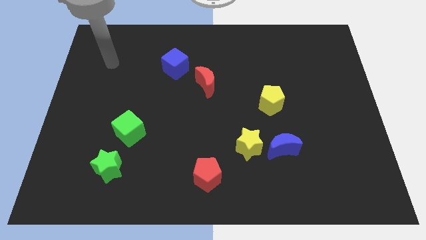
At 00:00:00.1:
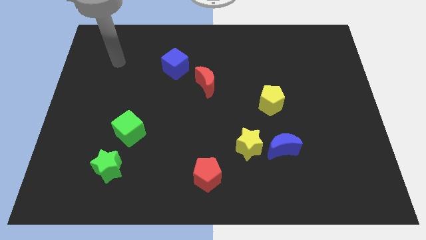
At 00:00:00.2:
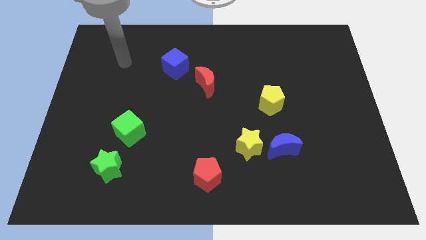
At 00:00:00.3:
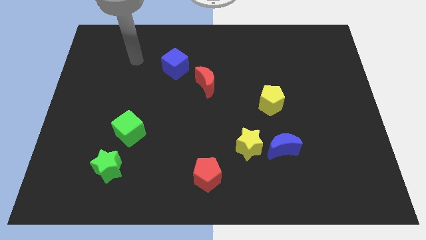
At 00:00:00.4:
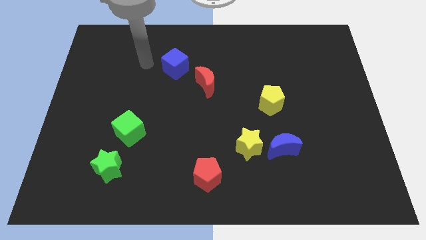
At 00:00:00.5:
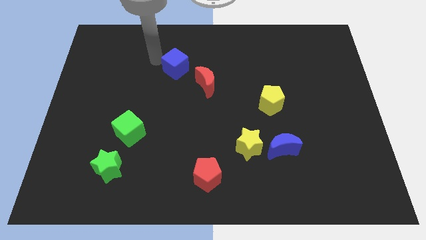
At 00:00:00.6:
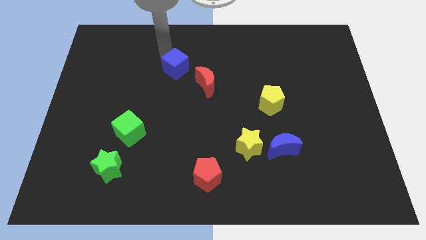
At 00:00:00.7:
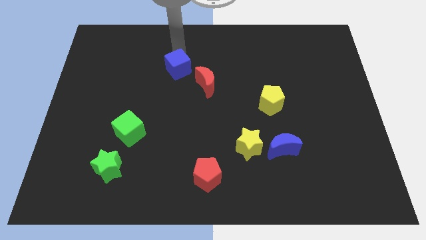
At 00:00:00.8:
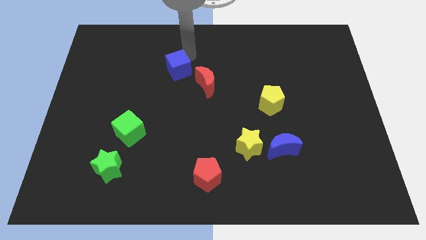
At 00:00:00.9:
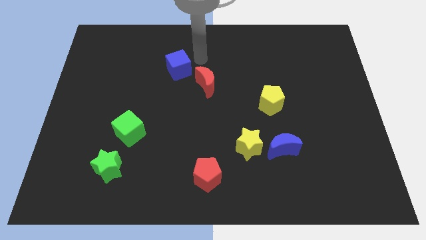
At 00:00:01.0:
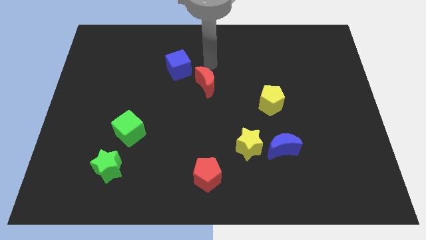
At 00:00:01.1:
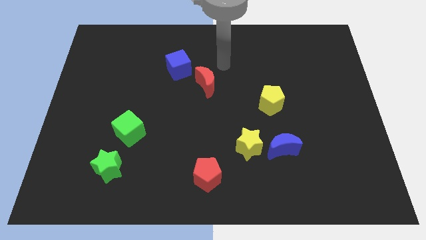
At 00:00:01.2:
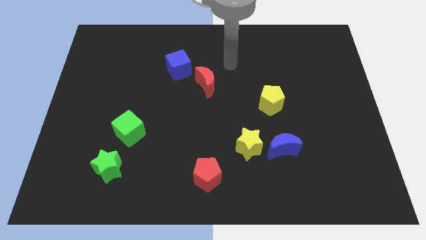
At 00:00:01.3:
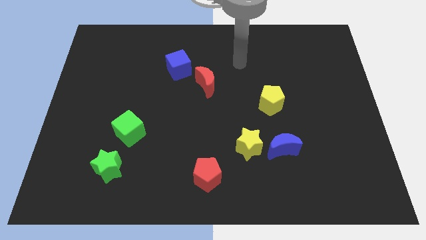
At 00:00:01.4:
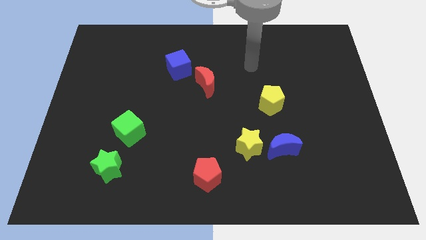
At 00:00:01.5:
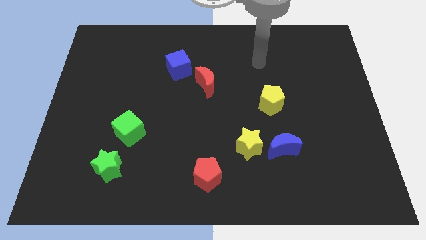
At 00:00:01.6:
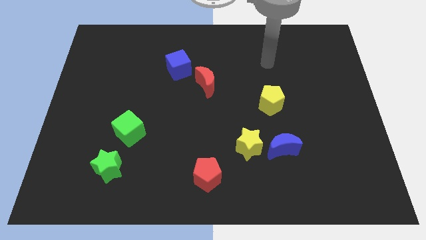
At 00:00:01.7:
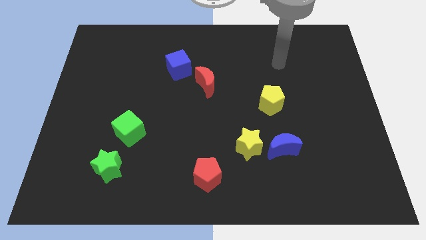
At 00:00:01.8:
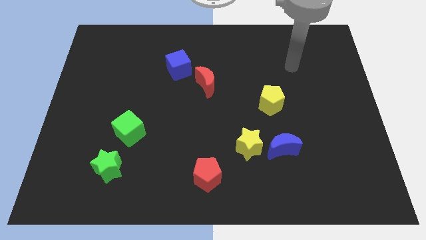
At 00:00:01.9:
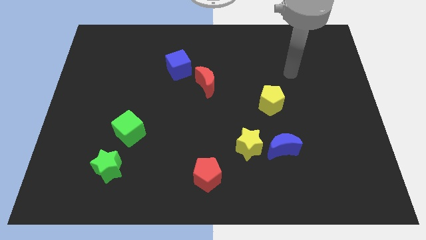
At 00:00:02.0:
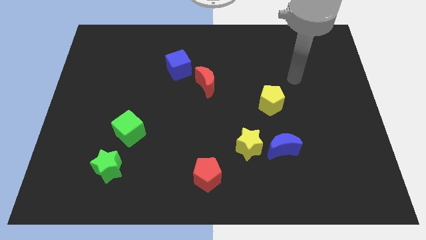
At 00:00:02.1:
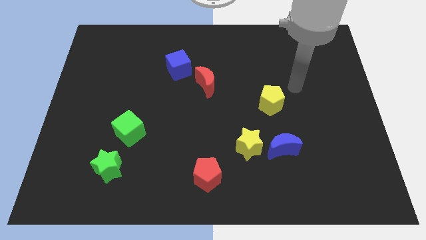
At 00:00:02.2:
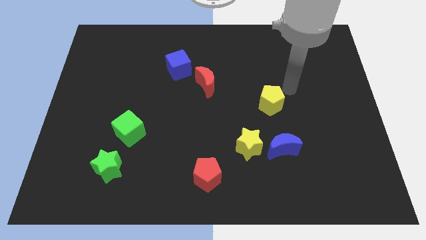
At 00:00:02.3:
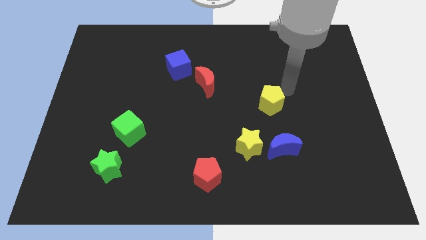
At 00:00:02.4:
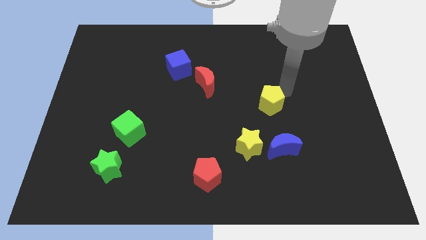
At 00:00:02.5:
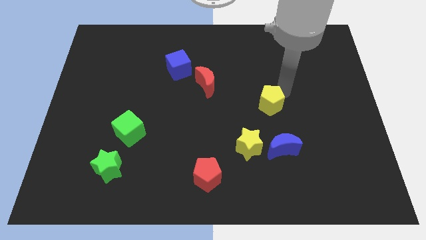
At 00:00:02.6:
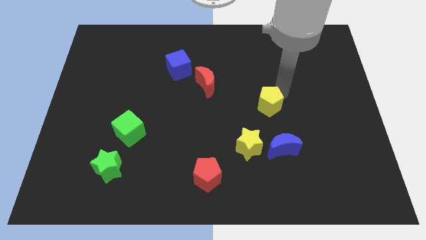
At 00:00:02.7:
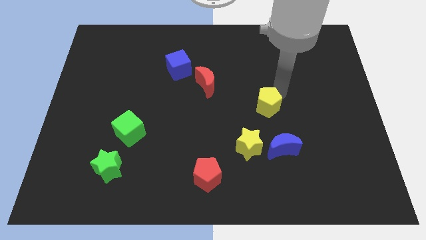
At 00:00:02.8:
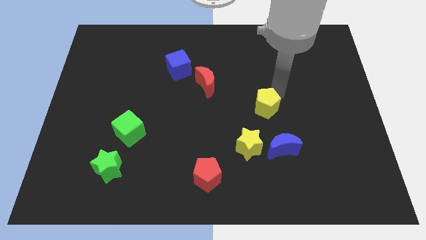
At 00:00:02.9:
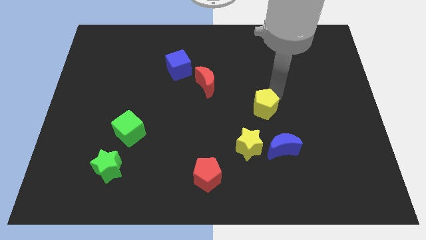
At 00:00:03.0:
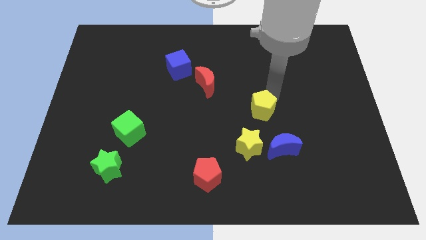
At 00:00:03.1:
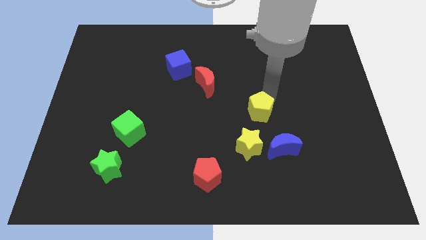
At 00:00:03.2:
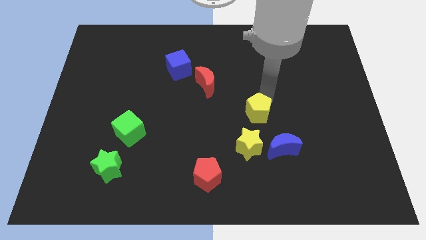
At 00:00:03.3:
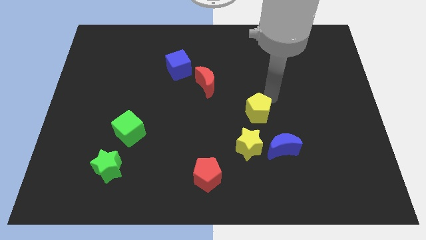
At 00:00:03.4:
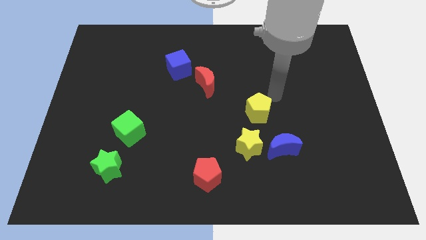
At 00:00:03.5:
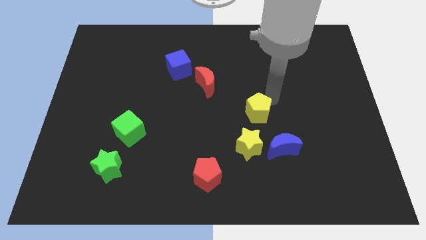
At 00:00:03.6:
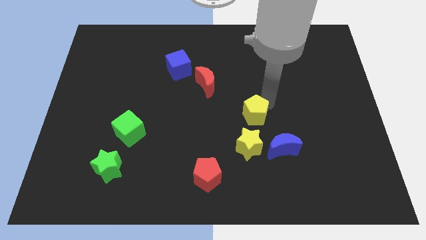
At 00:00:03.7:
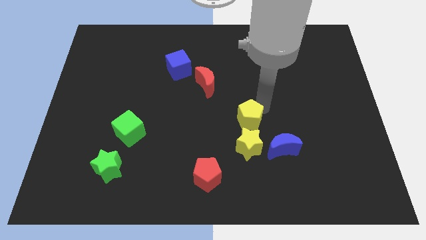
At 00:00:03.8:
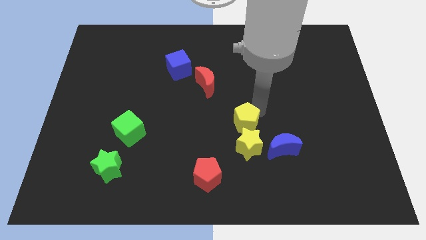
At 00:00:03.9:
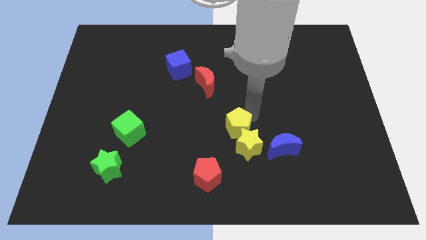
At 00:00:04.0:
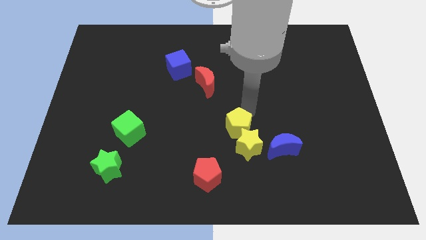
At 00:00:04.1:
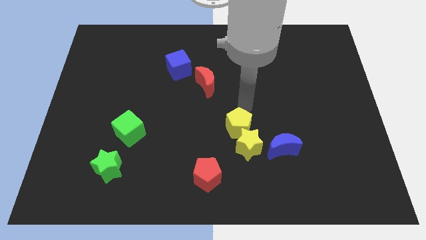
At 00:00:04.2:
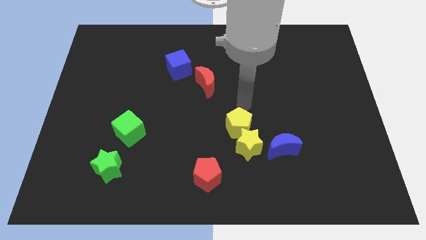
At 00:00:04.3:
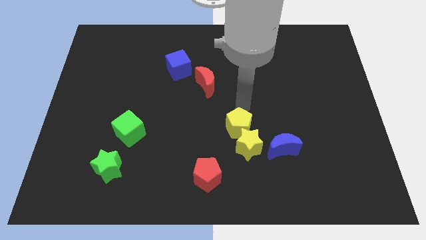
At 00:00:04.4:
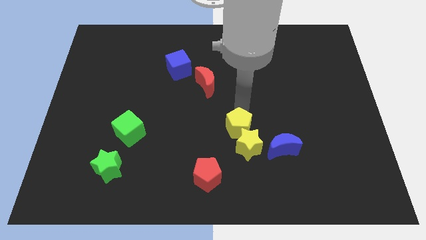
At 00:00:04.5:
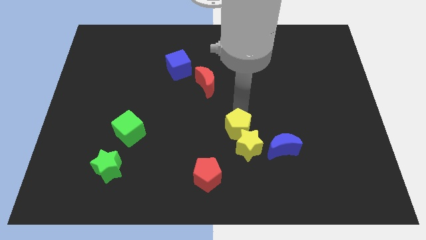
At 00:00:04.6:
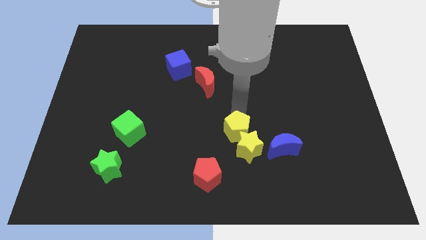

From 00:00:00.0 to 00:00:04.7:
move the yellow pentagon to the left of the blue moon

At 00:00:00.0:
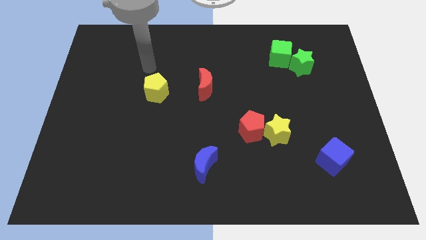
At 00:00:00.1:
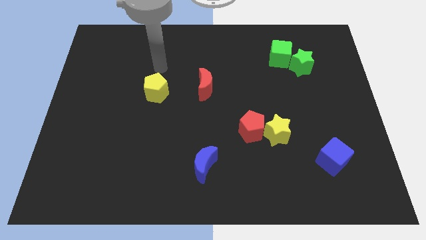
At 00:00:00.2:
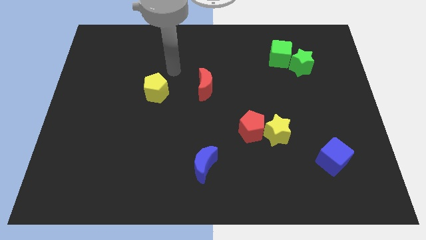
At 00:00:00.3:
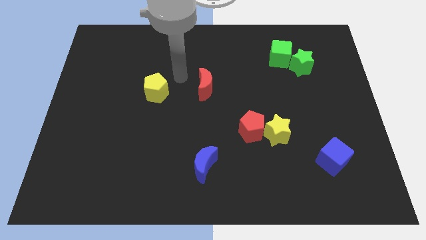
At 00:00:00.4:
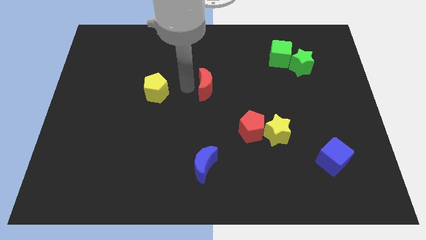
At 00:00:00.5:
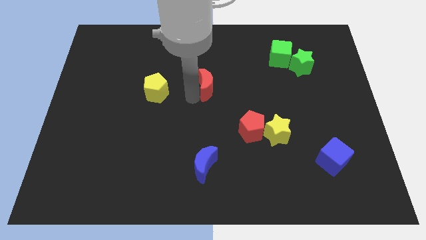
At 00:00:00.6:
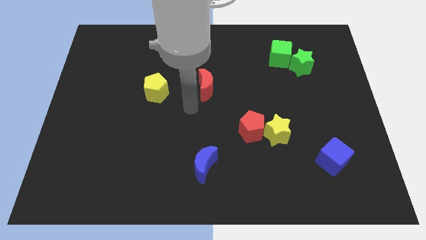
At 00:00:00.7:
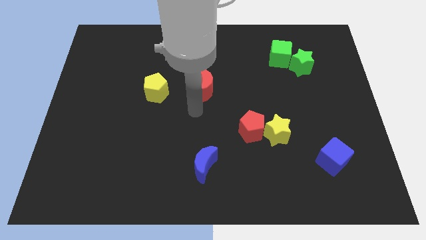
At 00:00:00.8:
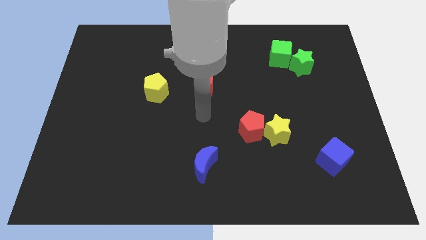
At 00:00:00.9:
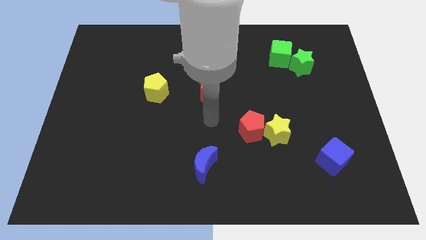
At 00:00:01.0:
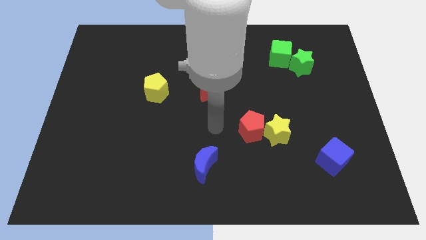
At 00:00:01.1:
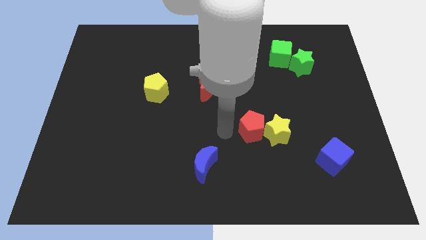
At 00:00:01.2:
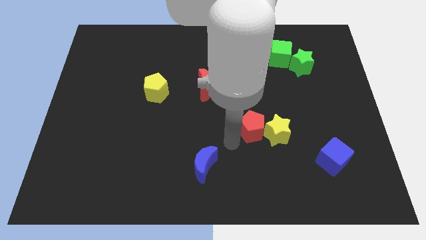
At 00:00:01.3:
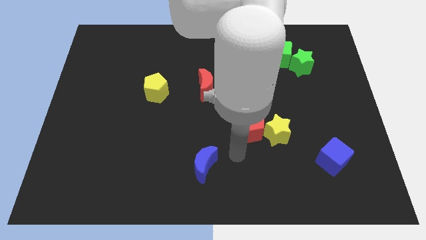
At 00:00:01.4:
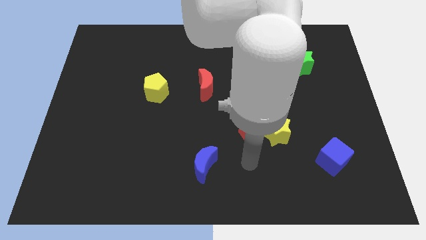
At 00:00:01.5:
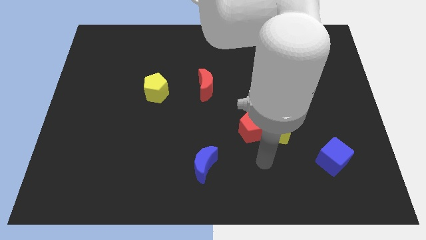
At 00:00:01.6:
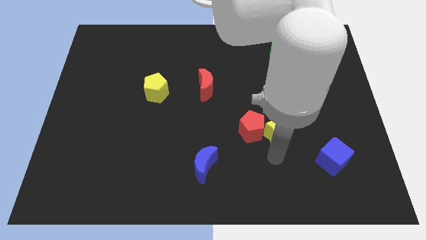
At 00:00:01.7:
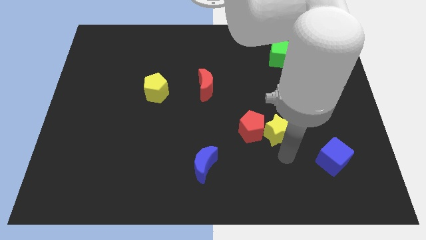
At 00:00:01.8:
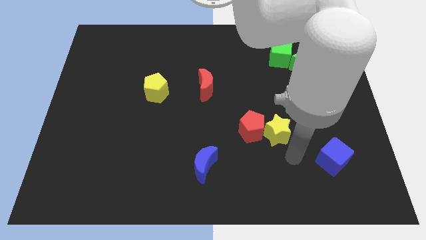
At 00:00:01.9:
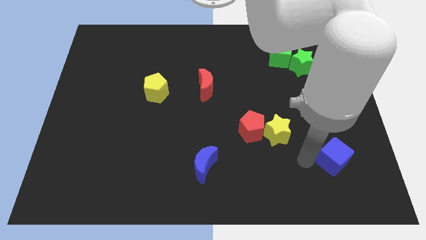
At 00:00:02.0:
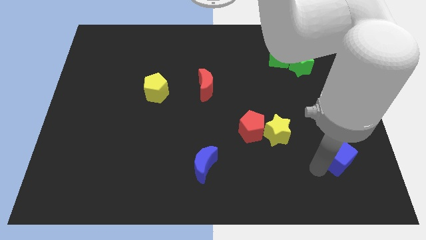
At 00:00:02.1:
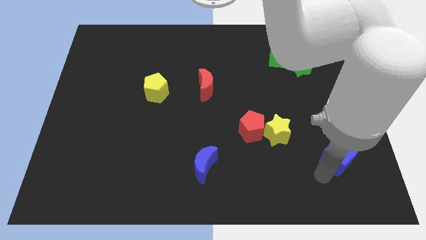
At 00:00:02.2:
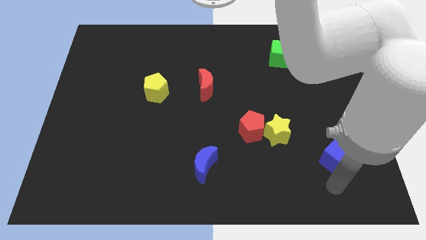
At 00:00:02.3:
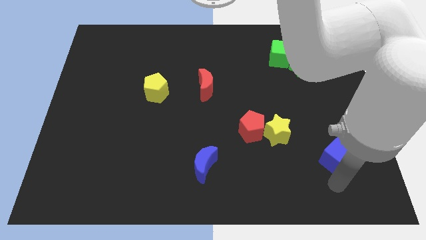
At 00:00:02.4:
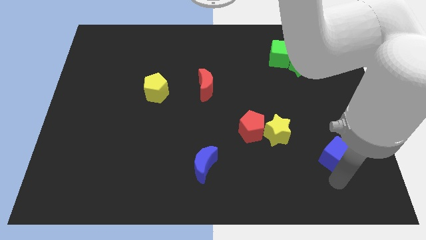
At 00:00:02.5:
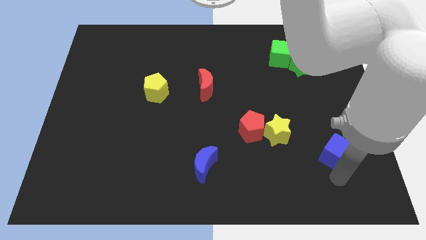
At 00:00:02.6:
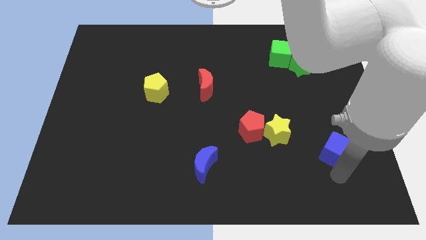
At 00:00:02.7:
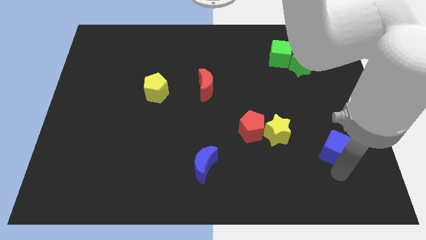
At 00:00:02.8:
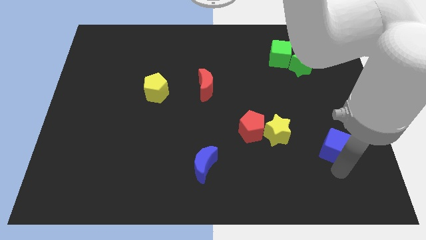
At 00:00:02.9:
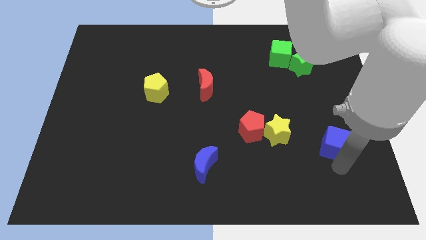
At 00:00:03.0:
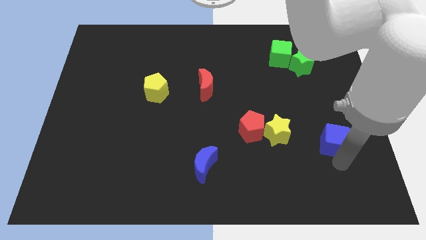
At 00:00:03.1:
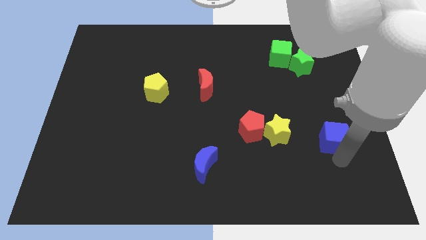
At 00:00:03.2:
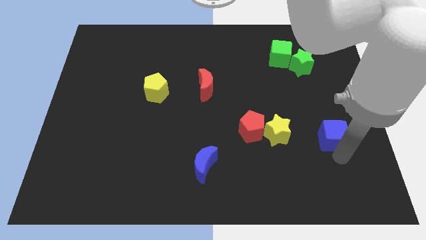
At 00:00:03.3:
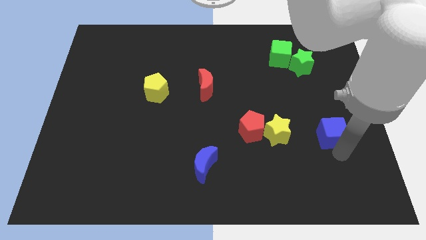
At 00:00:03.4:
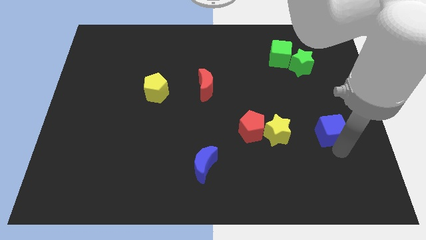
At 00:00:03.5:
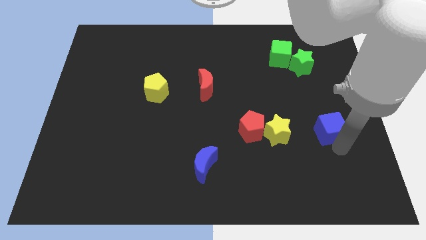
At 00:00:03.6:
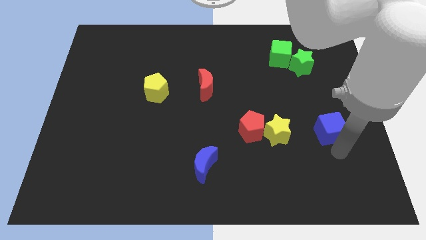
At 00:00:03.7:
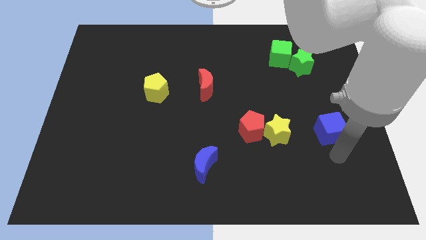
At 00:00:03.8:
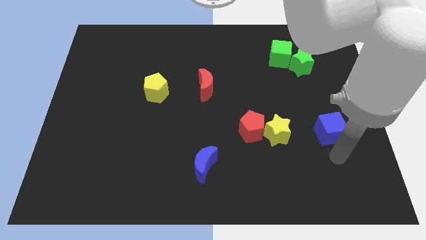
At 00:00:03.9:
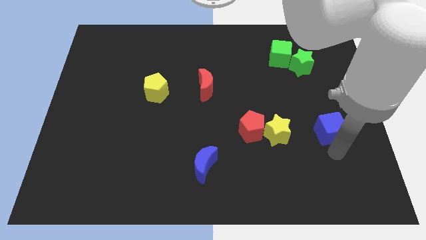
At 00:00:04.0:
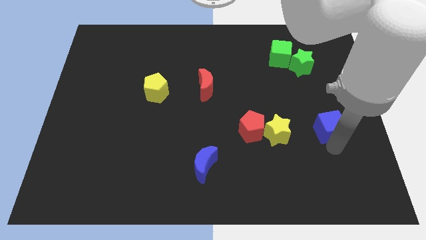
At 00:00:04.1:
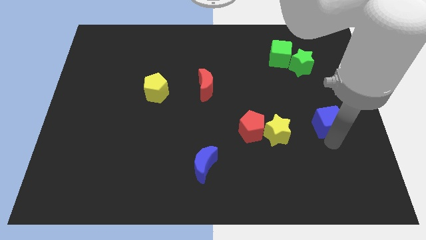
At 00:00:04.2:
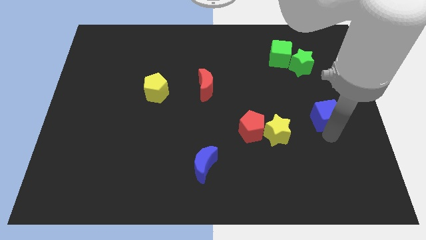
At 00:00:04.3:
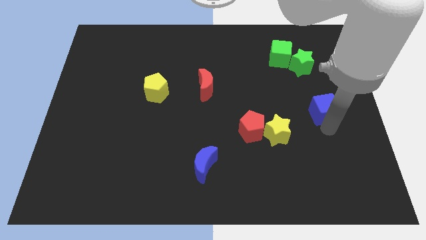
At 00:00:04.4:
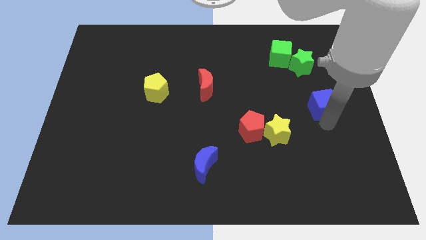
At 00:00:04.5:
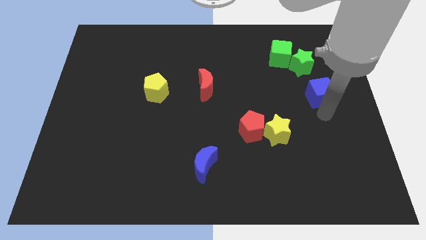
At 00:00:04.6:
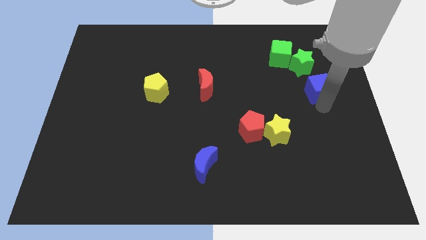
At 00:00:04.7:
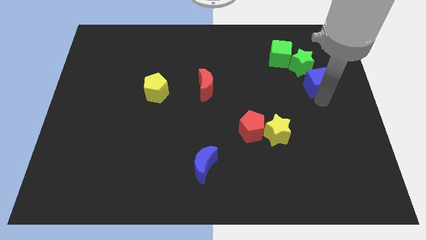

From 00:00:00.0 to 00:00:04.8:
push the blue cube diagonally down and to the right of the green cube
